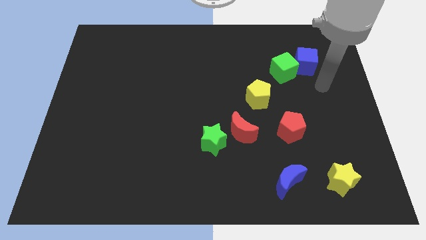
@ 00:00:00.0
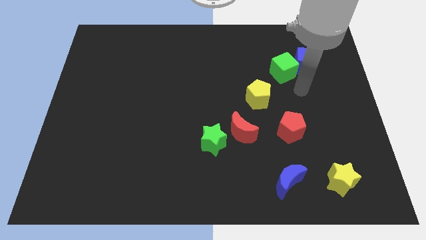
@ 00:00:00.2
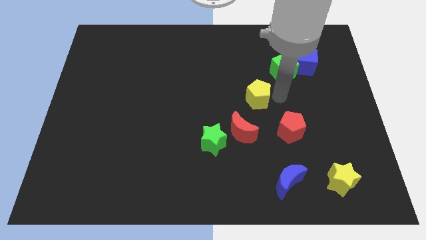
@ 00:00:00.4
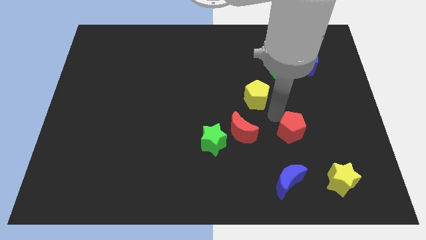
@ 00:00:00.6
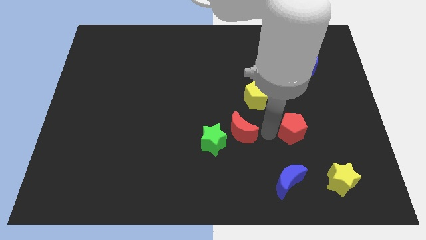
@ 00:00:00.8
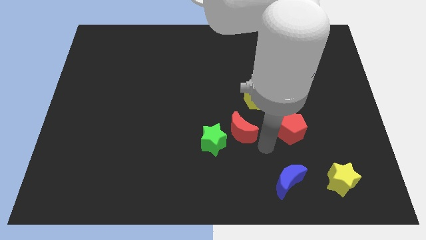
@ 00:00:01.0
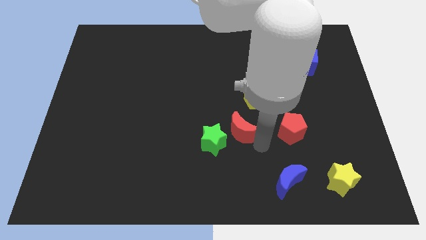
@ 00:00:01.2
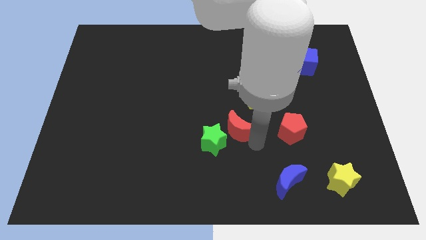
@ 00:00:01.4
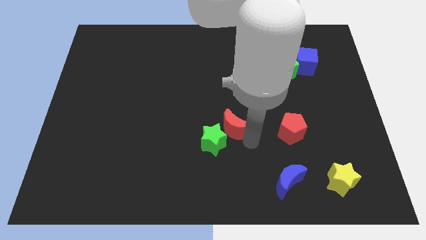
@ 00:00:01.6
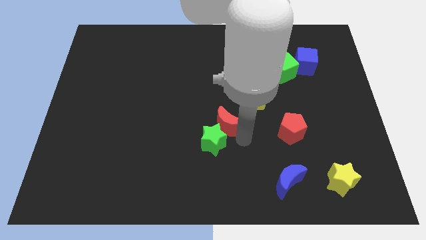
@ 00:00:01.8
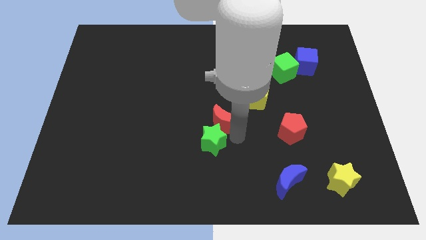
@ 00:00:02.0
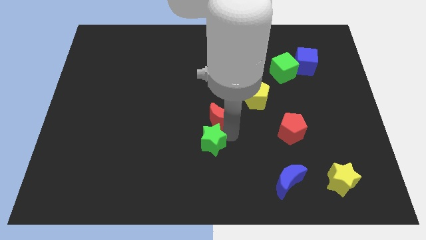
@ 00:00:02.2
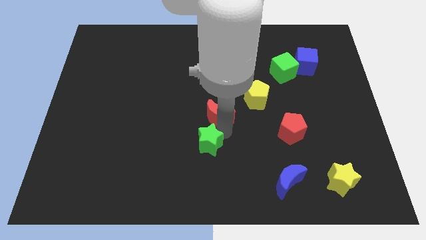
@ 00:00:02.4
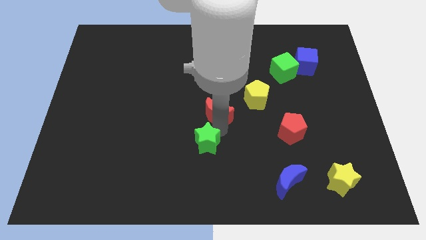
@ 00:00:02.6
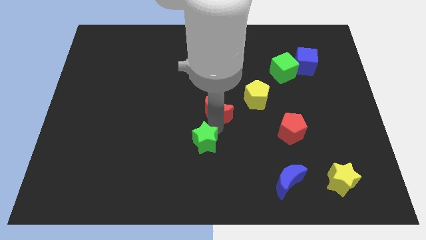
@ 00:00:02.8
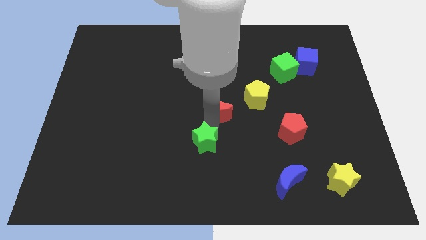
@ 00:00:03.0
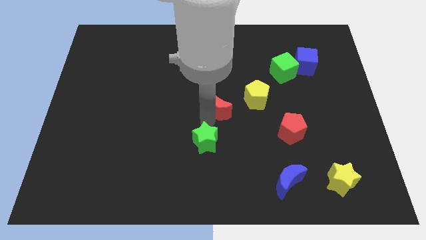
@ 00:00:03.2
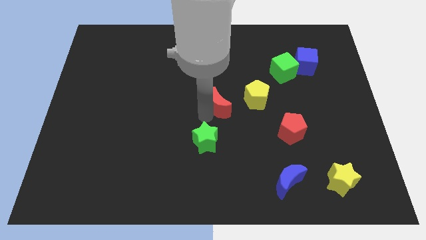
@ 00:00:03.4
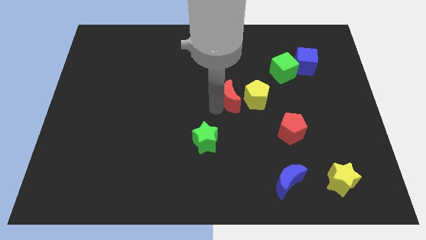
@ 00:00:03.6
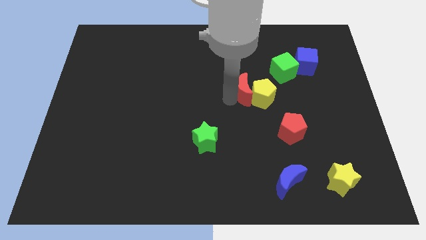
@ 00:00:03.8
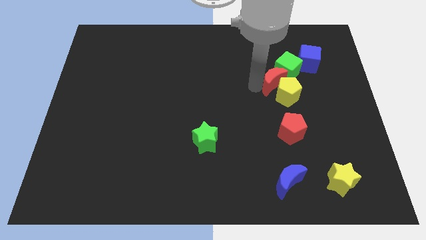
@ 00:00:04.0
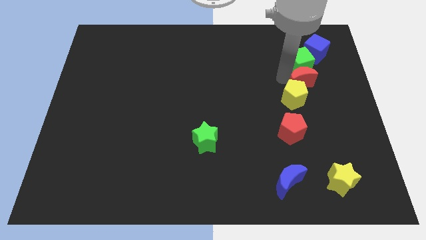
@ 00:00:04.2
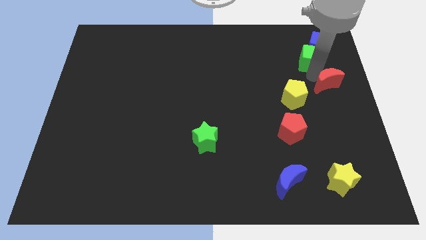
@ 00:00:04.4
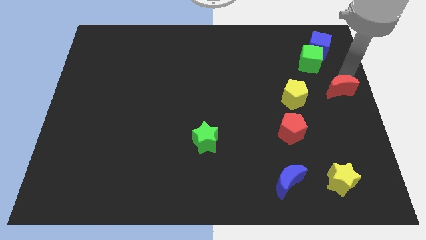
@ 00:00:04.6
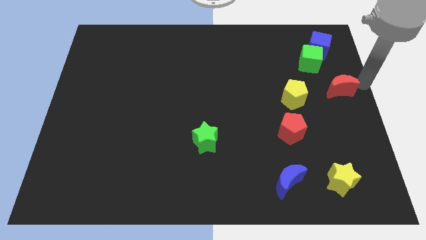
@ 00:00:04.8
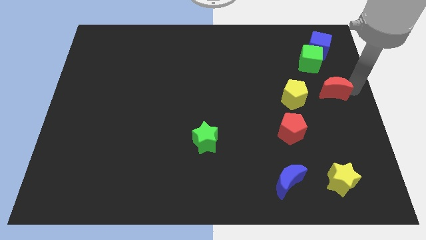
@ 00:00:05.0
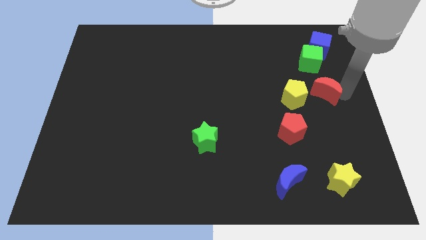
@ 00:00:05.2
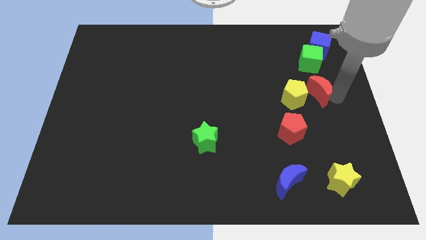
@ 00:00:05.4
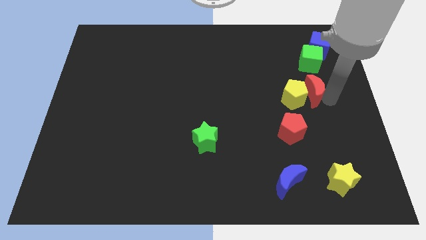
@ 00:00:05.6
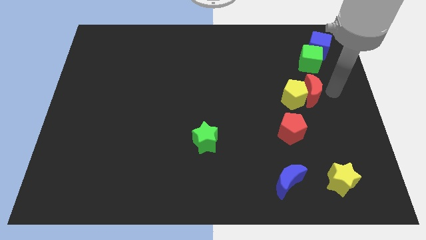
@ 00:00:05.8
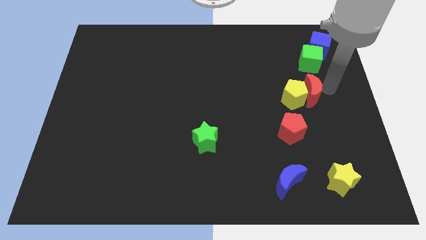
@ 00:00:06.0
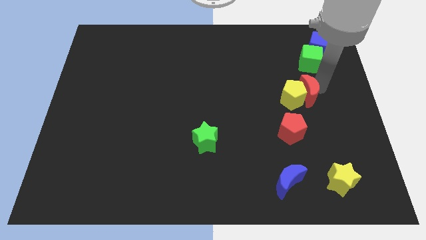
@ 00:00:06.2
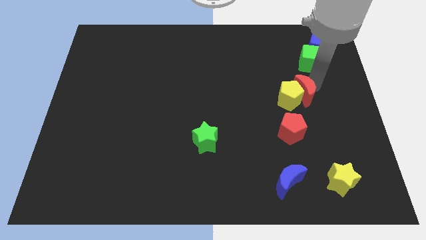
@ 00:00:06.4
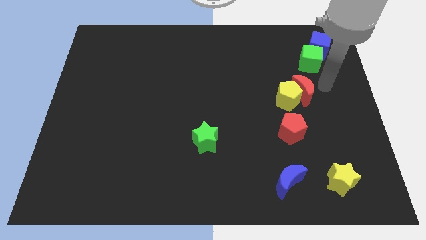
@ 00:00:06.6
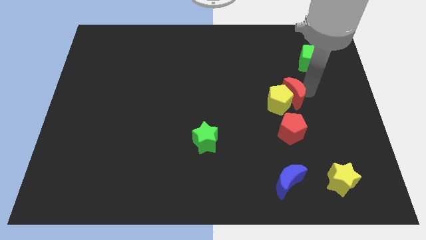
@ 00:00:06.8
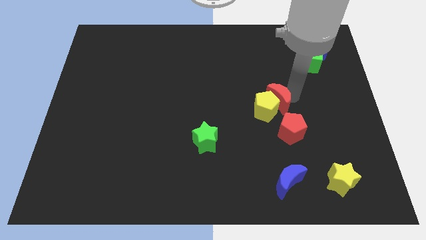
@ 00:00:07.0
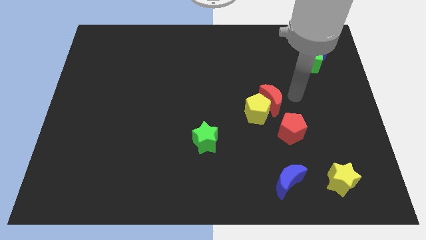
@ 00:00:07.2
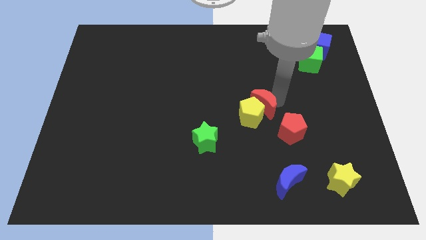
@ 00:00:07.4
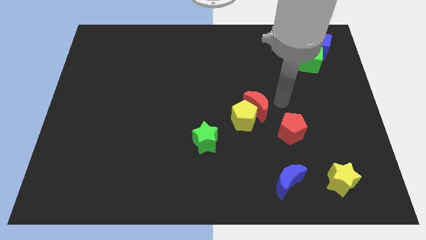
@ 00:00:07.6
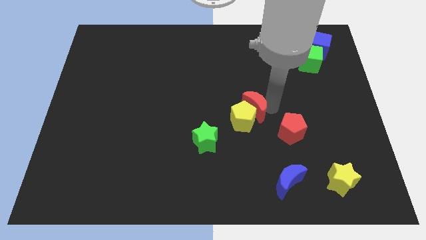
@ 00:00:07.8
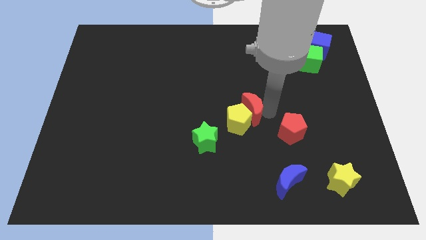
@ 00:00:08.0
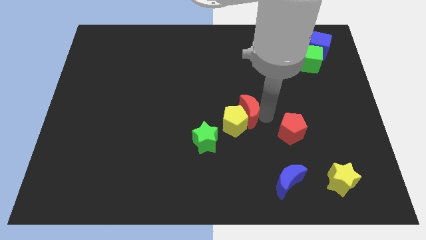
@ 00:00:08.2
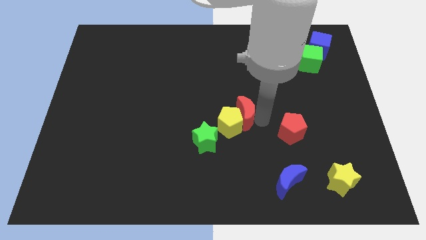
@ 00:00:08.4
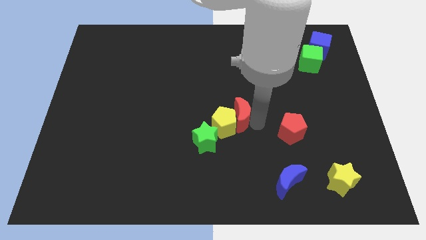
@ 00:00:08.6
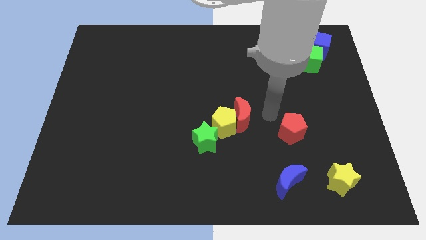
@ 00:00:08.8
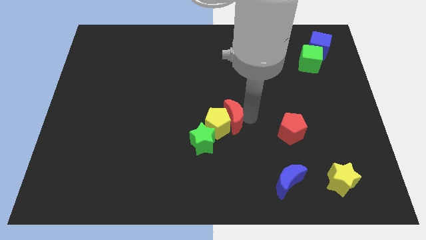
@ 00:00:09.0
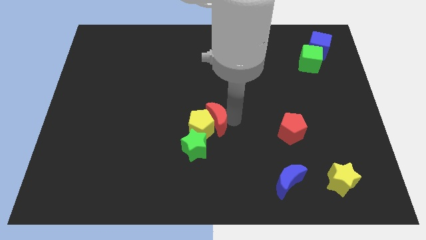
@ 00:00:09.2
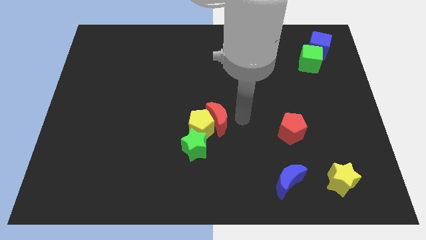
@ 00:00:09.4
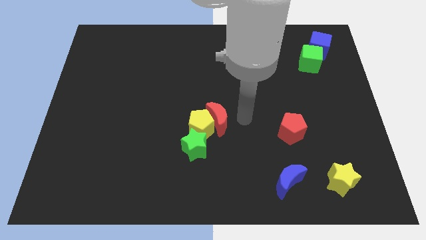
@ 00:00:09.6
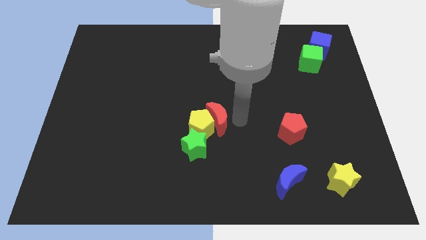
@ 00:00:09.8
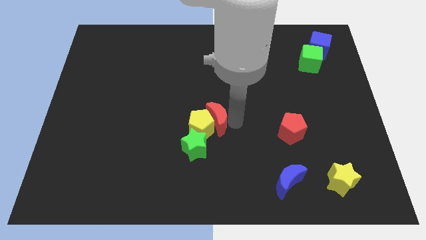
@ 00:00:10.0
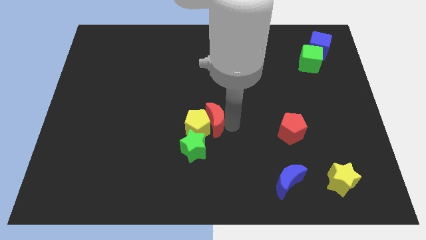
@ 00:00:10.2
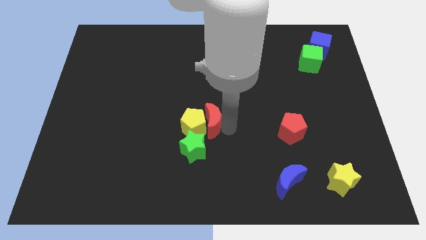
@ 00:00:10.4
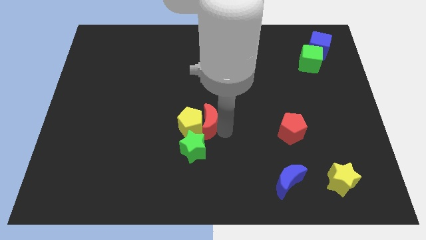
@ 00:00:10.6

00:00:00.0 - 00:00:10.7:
move the red moon to the left a bit

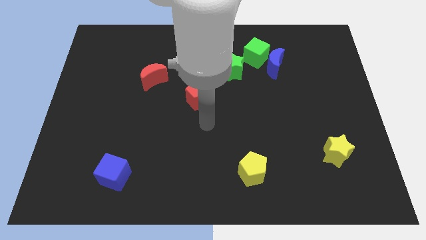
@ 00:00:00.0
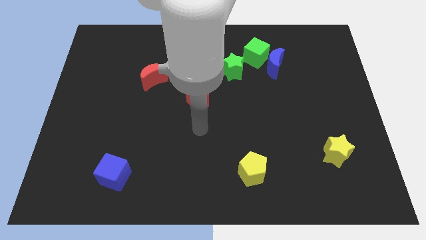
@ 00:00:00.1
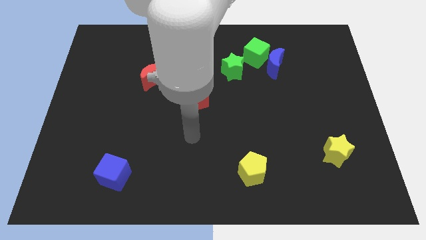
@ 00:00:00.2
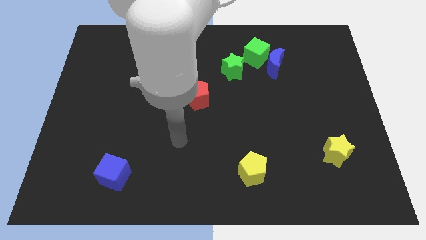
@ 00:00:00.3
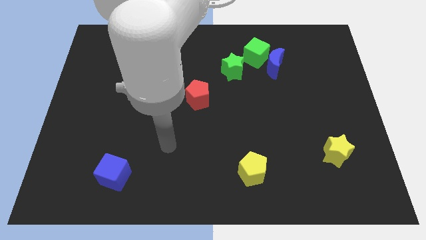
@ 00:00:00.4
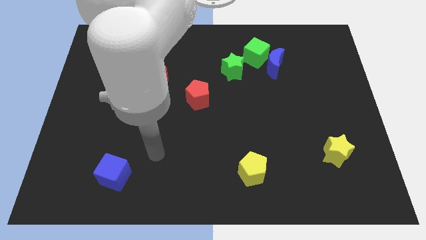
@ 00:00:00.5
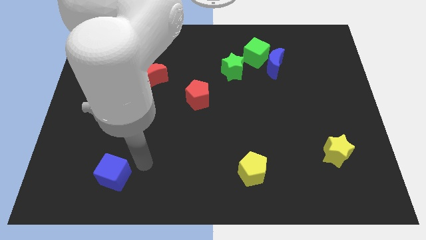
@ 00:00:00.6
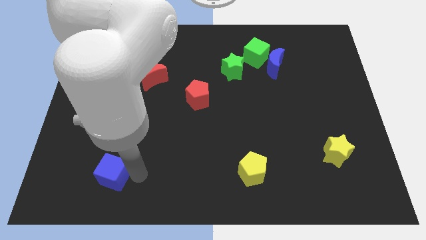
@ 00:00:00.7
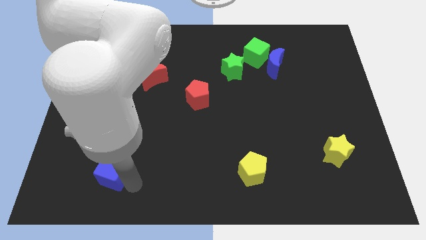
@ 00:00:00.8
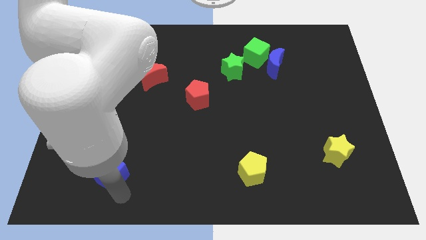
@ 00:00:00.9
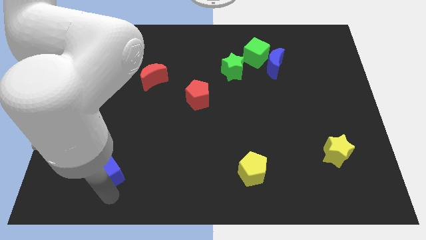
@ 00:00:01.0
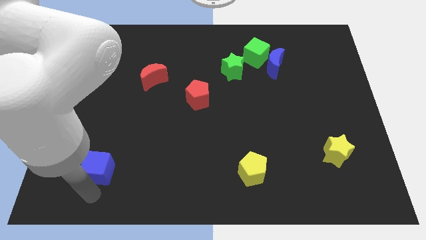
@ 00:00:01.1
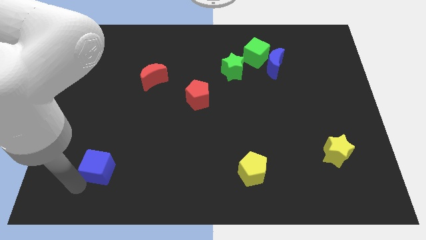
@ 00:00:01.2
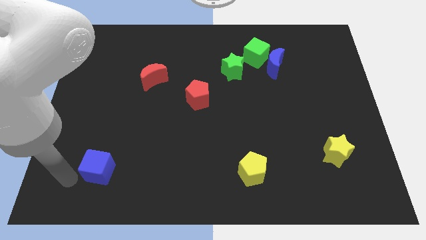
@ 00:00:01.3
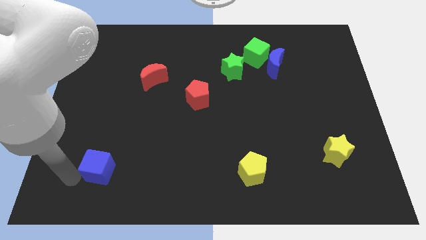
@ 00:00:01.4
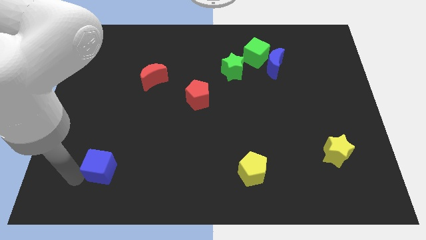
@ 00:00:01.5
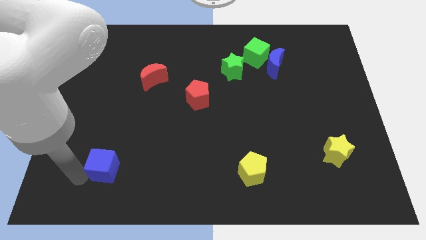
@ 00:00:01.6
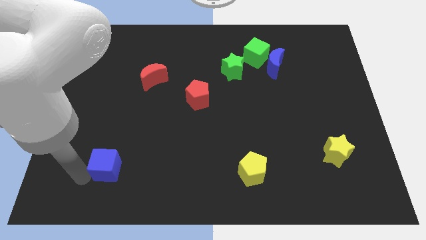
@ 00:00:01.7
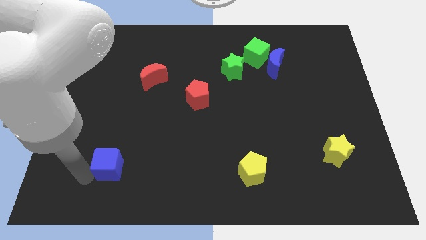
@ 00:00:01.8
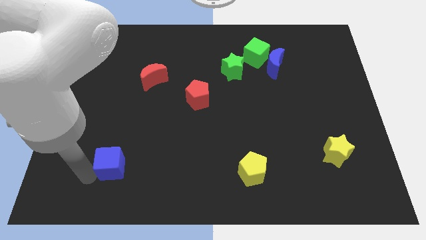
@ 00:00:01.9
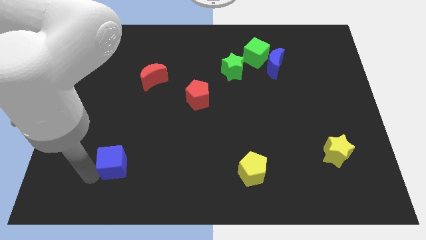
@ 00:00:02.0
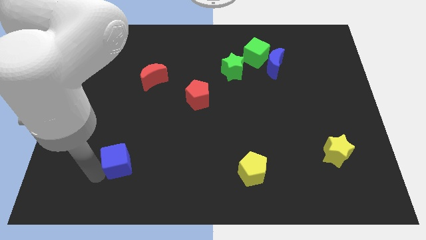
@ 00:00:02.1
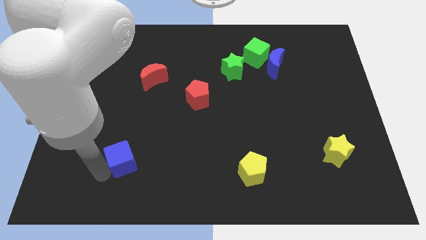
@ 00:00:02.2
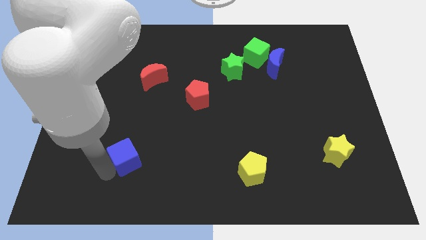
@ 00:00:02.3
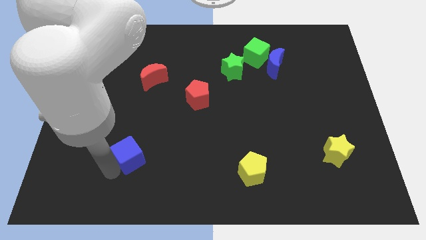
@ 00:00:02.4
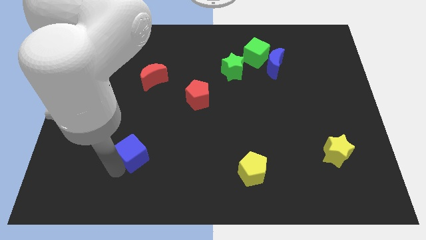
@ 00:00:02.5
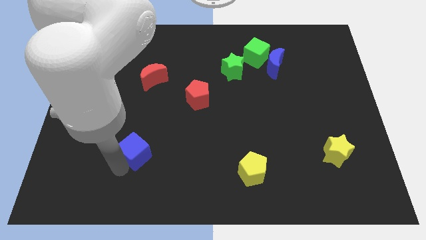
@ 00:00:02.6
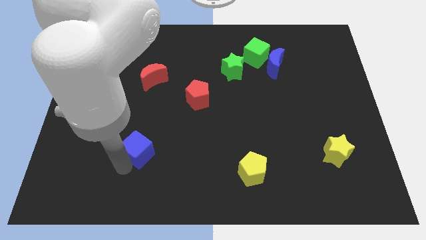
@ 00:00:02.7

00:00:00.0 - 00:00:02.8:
push the blue cube up and then to the right a little
